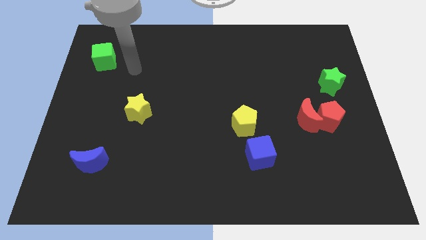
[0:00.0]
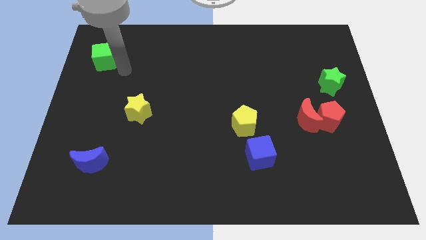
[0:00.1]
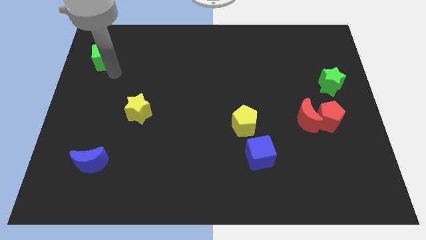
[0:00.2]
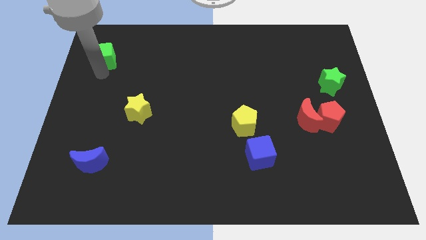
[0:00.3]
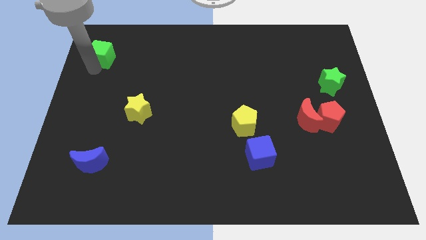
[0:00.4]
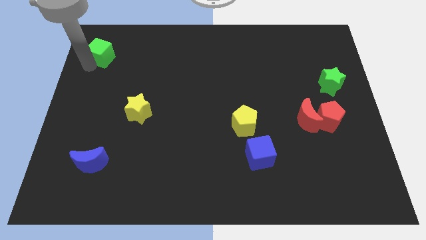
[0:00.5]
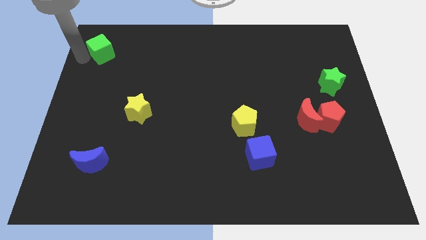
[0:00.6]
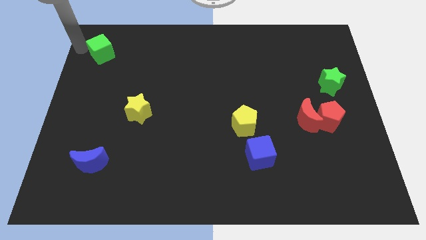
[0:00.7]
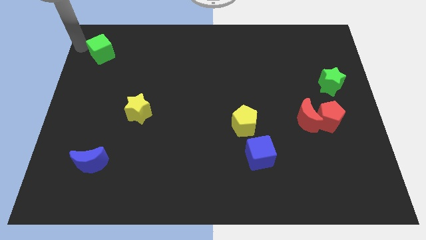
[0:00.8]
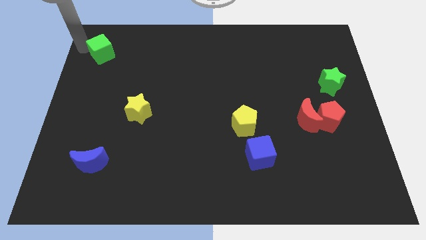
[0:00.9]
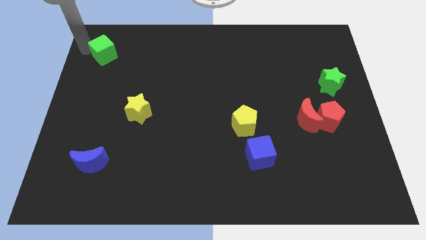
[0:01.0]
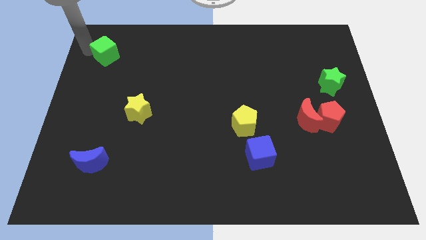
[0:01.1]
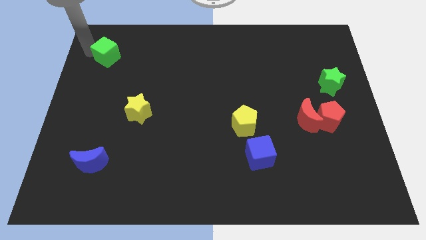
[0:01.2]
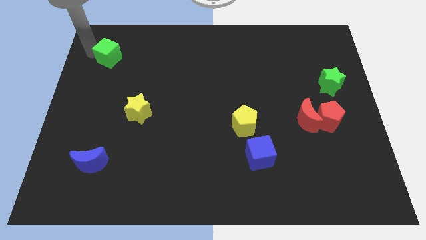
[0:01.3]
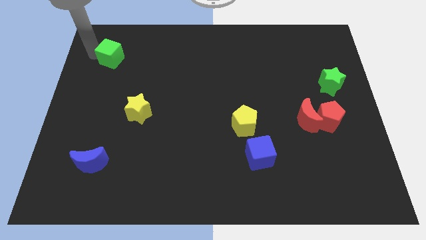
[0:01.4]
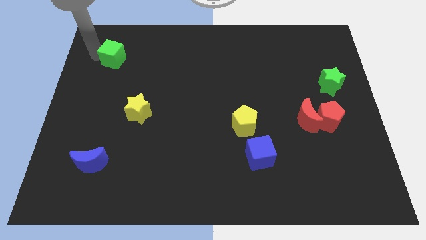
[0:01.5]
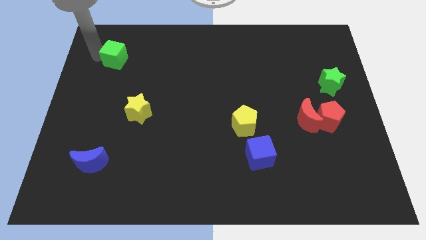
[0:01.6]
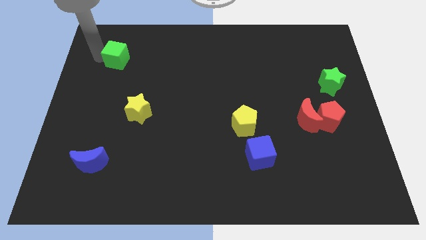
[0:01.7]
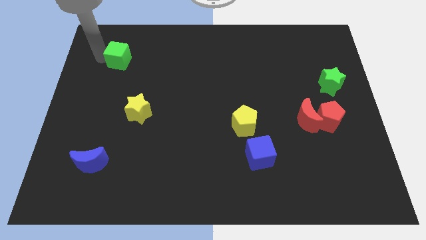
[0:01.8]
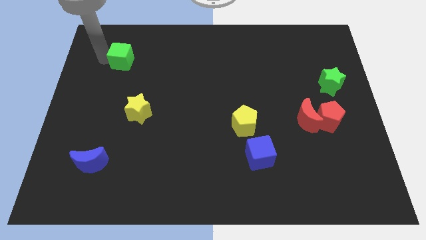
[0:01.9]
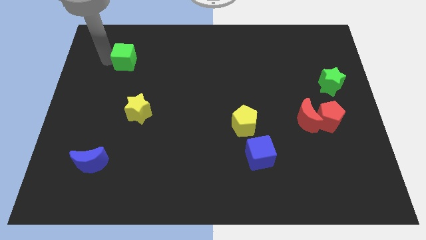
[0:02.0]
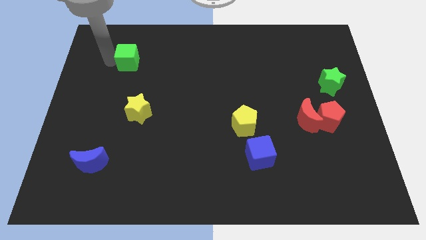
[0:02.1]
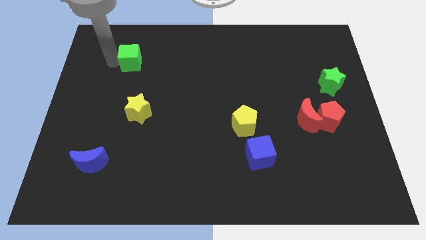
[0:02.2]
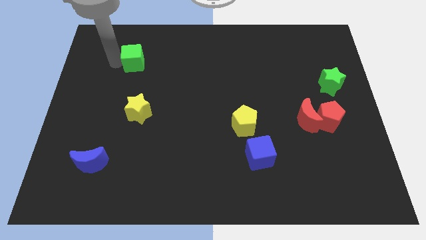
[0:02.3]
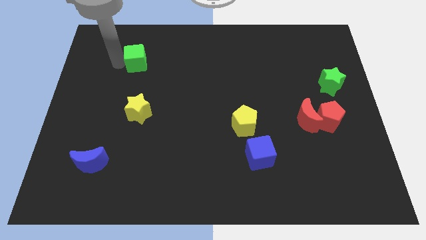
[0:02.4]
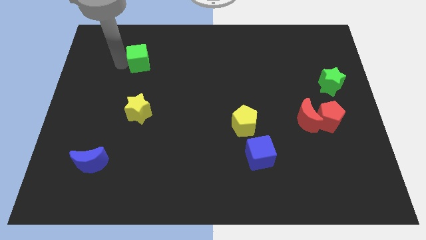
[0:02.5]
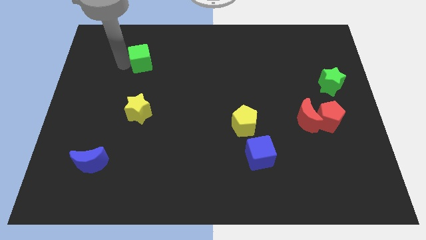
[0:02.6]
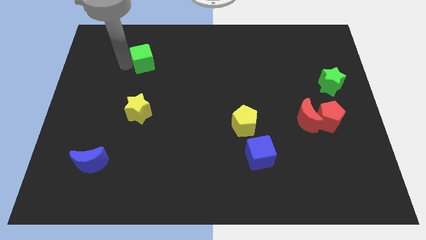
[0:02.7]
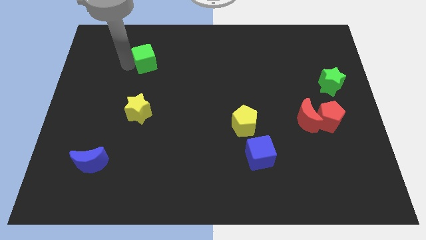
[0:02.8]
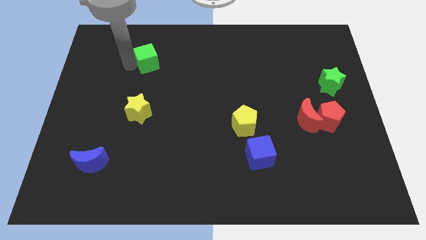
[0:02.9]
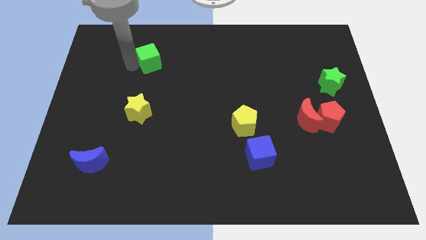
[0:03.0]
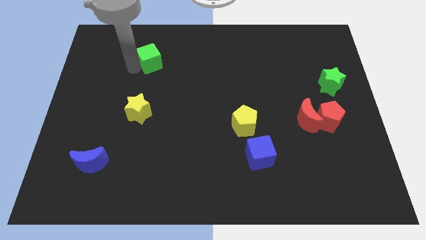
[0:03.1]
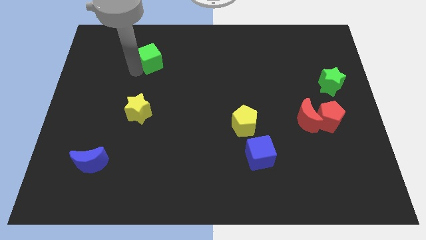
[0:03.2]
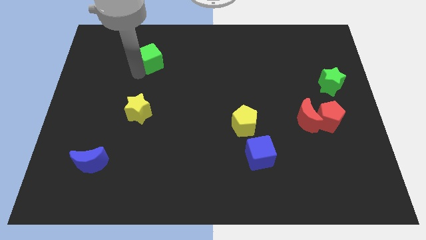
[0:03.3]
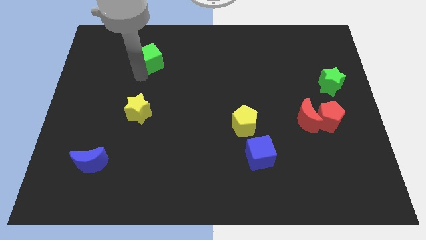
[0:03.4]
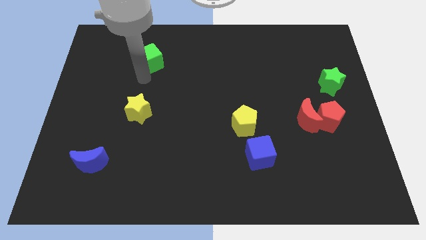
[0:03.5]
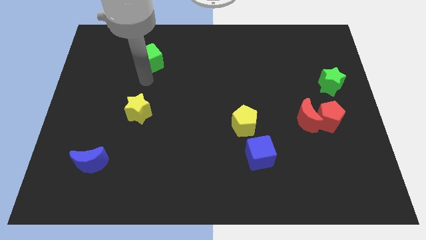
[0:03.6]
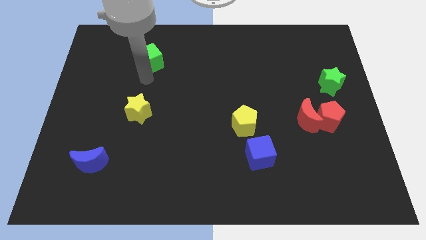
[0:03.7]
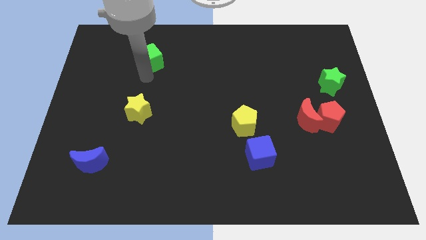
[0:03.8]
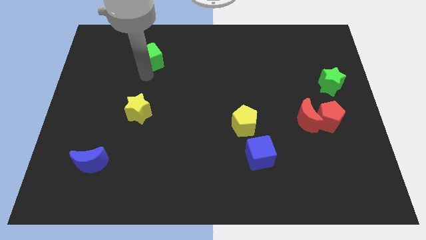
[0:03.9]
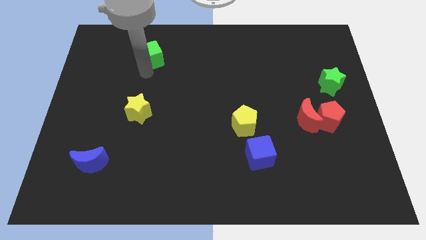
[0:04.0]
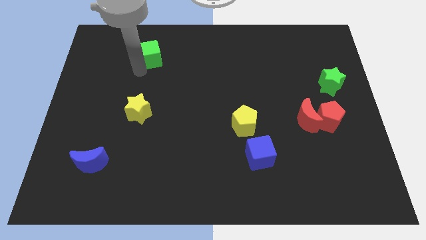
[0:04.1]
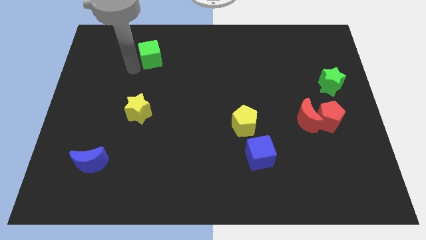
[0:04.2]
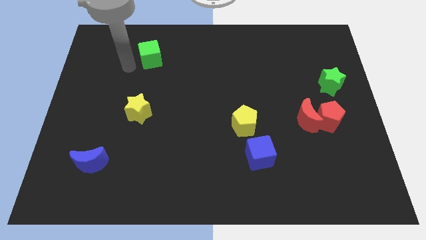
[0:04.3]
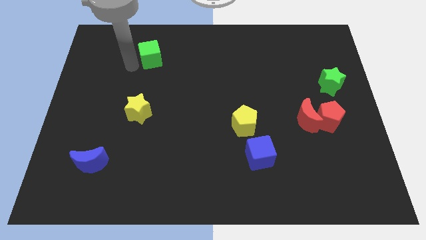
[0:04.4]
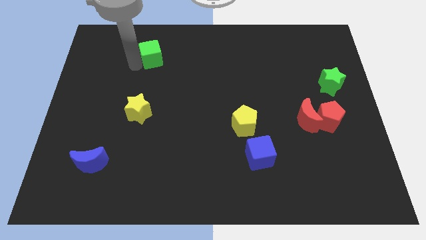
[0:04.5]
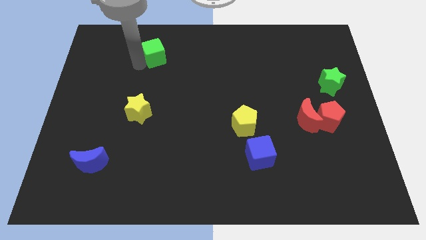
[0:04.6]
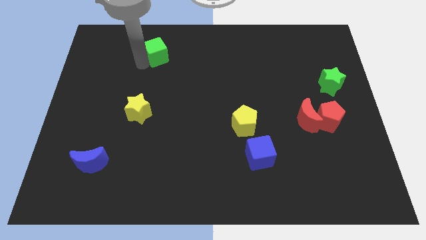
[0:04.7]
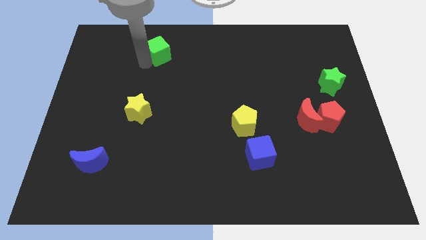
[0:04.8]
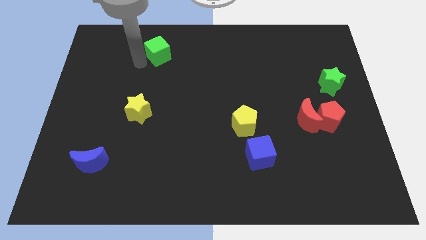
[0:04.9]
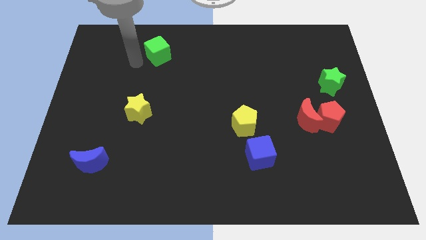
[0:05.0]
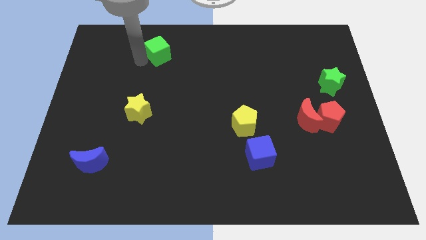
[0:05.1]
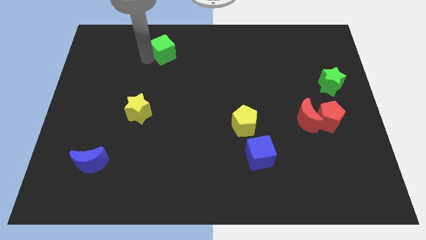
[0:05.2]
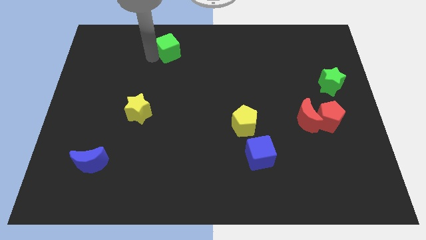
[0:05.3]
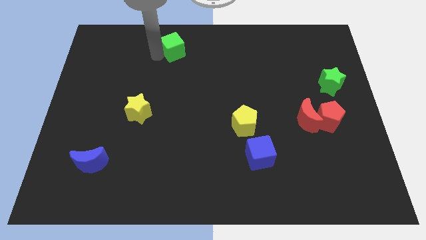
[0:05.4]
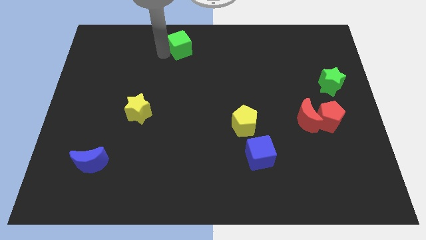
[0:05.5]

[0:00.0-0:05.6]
slide the green cube to the towards your base

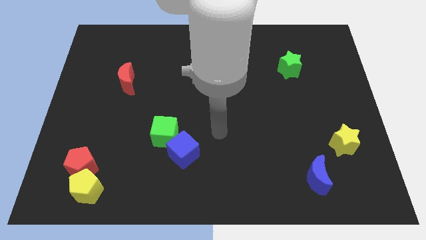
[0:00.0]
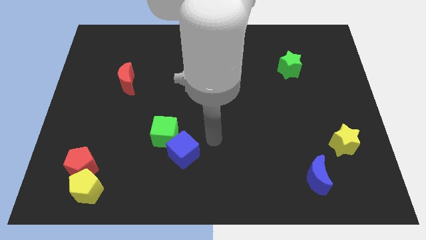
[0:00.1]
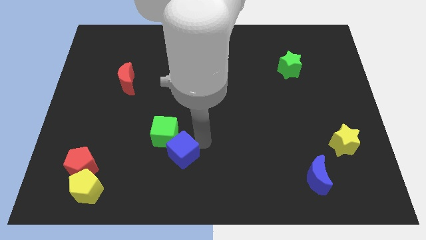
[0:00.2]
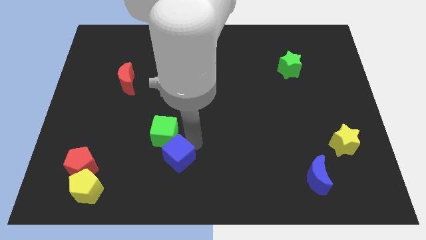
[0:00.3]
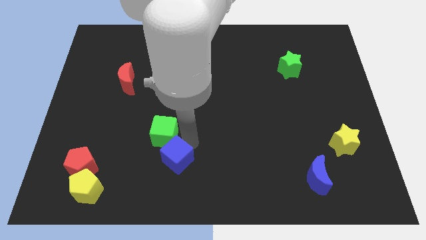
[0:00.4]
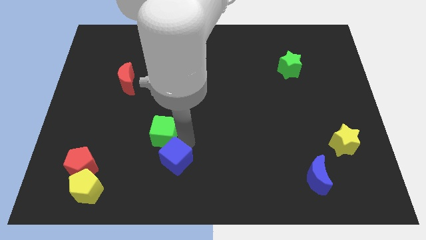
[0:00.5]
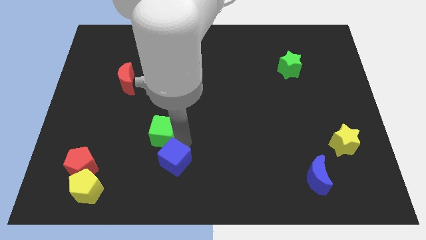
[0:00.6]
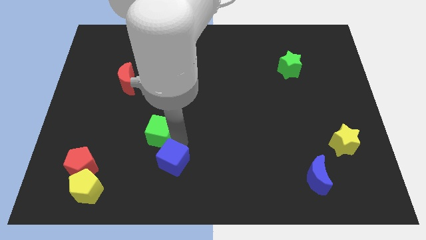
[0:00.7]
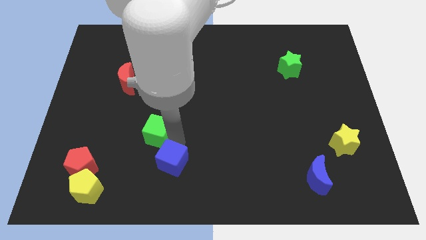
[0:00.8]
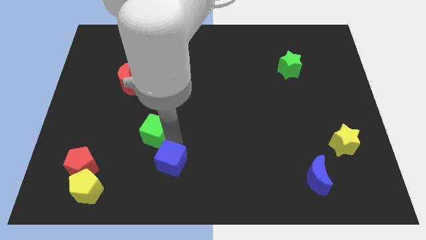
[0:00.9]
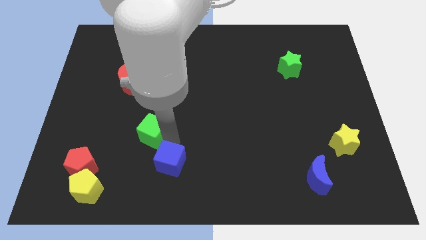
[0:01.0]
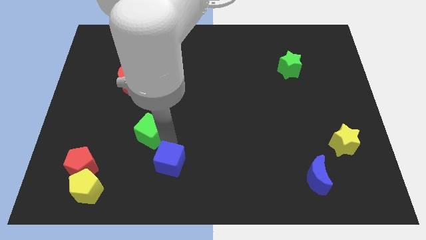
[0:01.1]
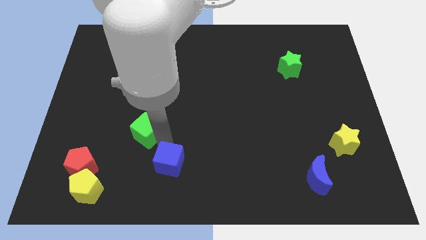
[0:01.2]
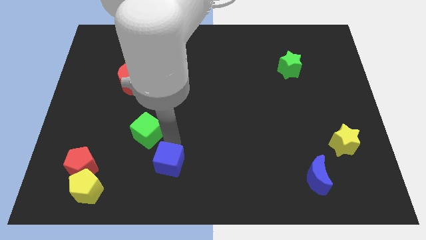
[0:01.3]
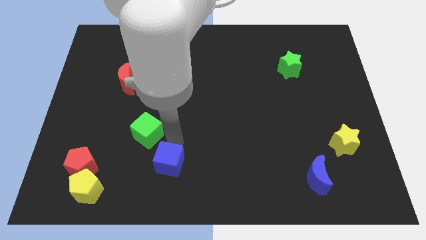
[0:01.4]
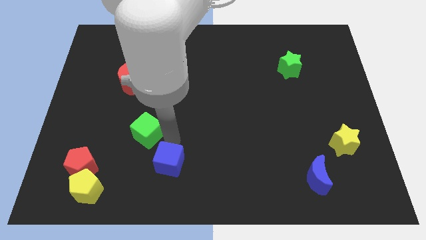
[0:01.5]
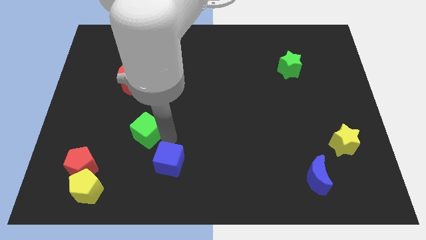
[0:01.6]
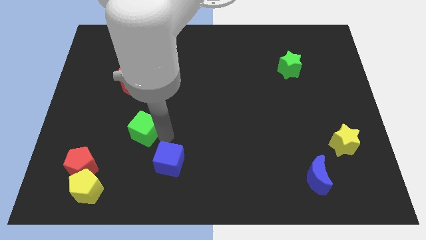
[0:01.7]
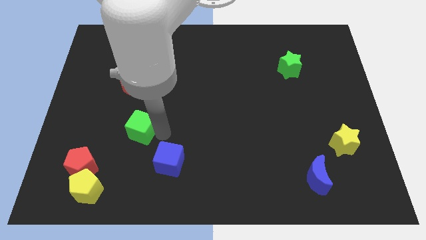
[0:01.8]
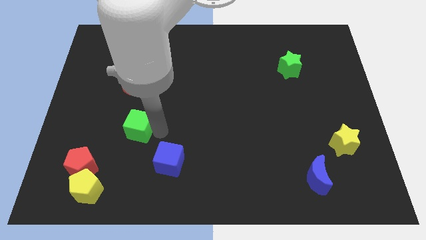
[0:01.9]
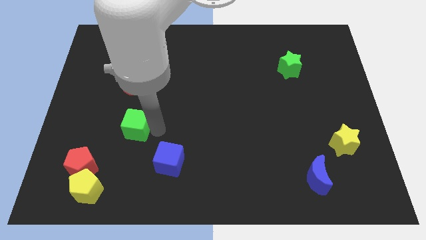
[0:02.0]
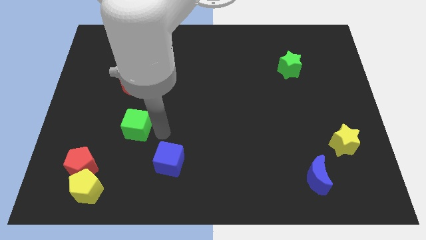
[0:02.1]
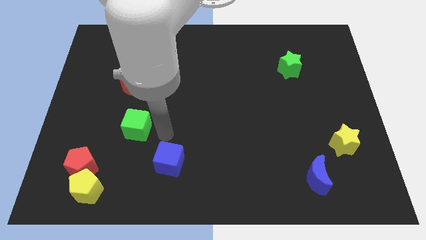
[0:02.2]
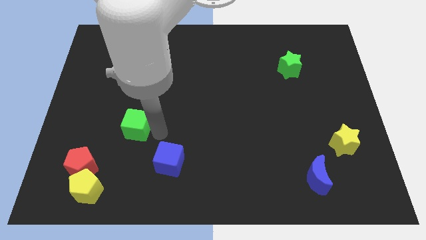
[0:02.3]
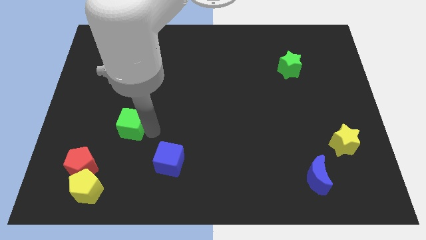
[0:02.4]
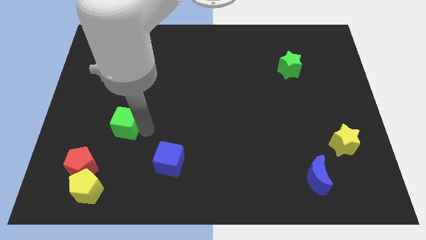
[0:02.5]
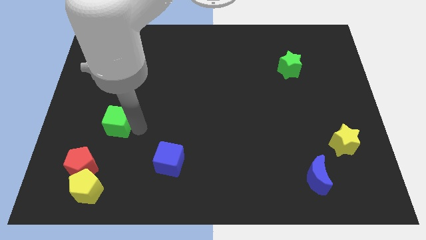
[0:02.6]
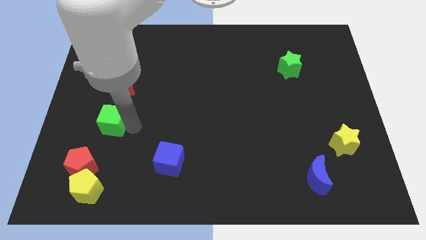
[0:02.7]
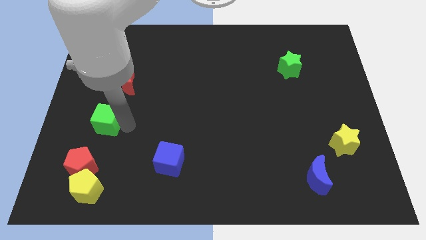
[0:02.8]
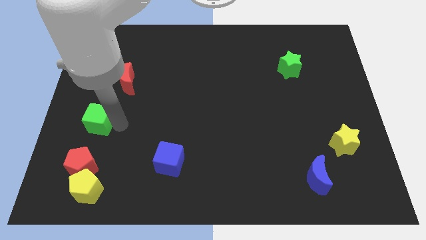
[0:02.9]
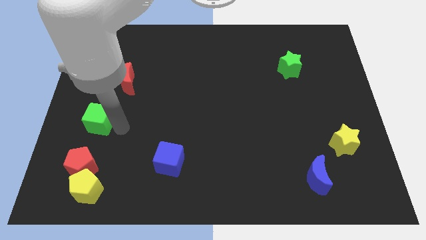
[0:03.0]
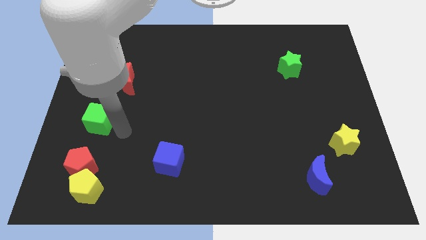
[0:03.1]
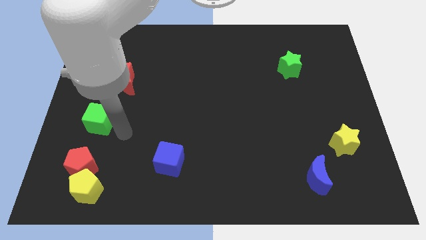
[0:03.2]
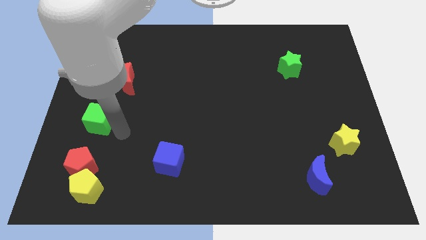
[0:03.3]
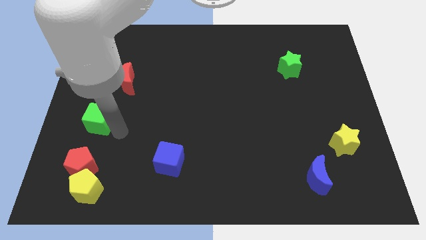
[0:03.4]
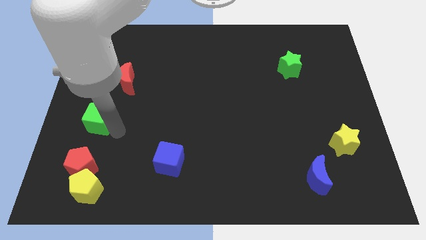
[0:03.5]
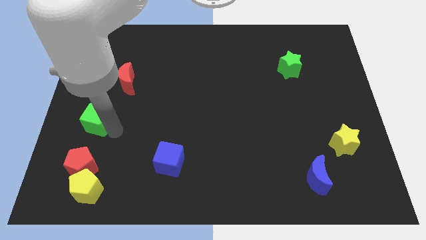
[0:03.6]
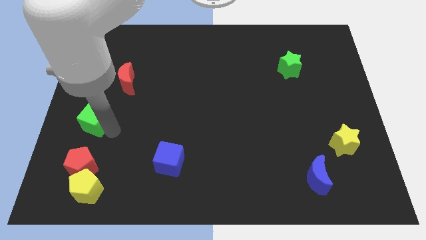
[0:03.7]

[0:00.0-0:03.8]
slide the green cube to the left side
